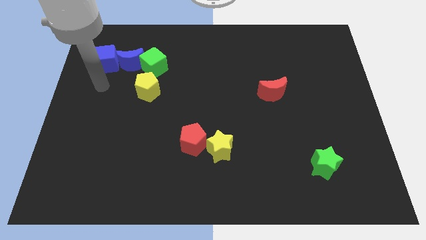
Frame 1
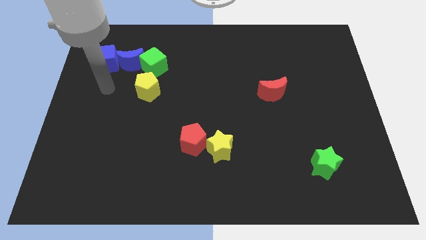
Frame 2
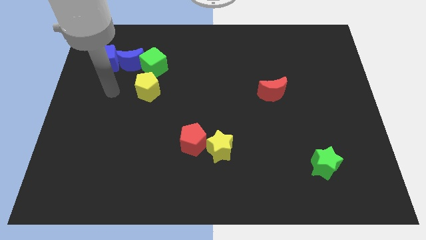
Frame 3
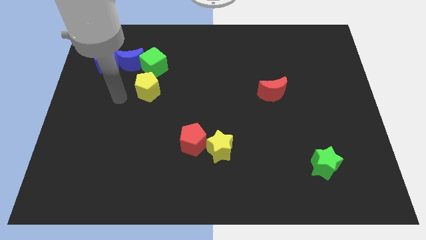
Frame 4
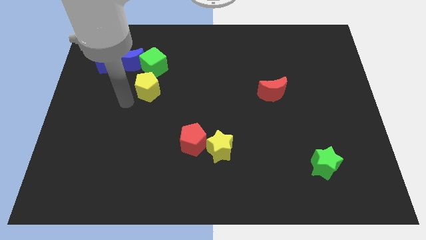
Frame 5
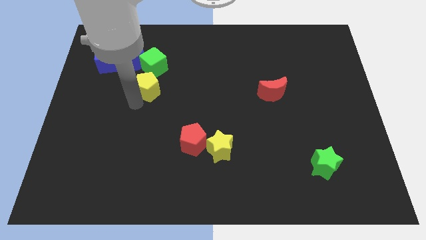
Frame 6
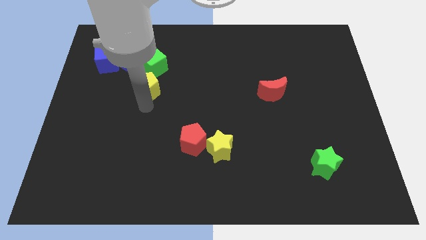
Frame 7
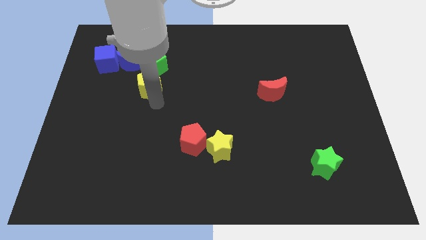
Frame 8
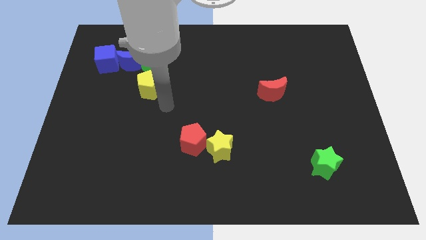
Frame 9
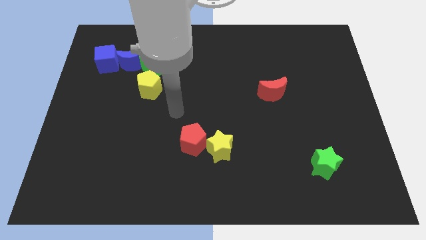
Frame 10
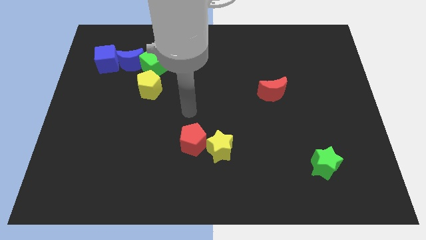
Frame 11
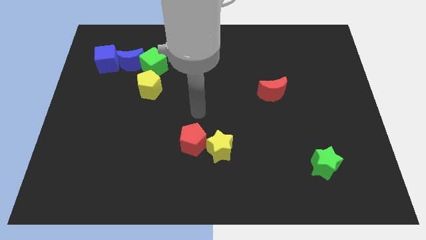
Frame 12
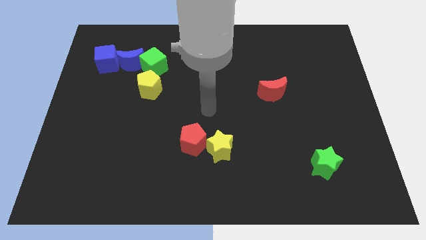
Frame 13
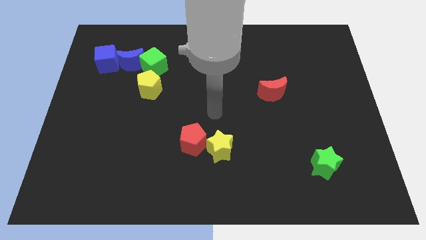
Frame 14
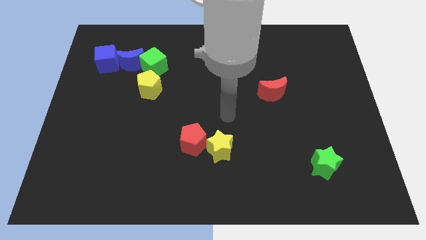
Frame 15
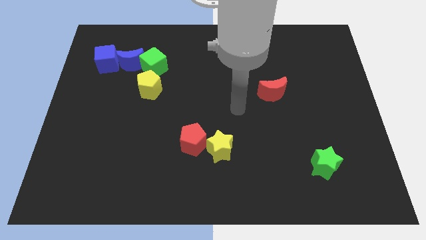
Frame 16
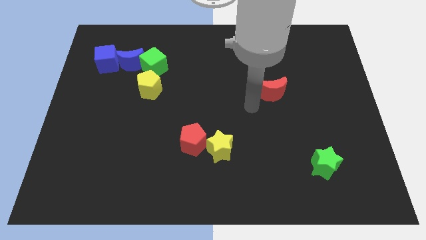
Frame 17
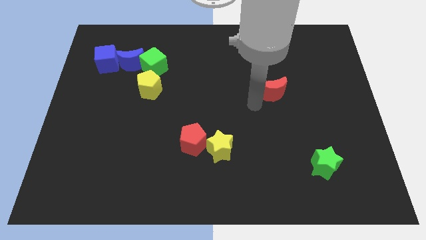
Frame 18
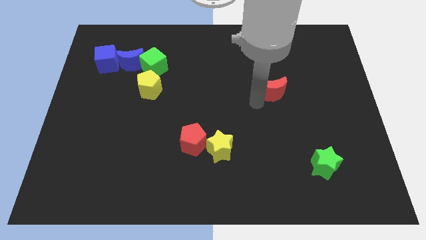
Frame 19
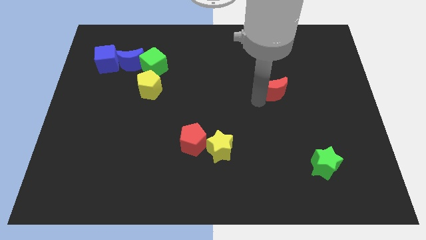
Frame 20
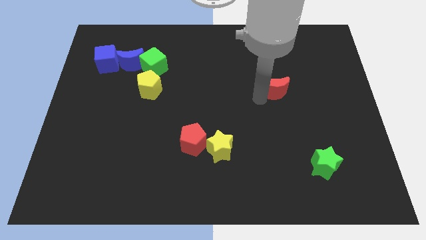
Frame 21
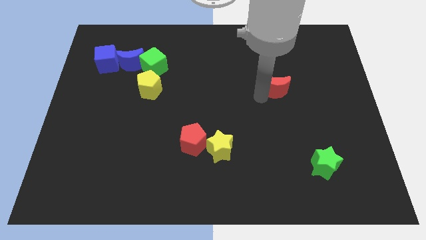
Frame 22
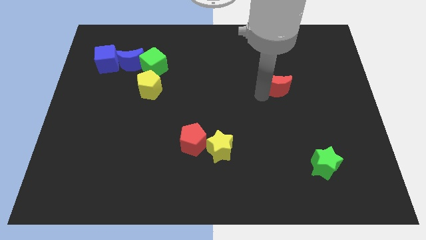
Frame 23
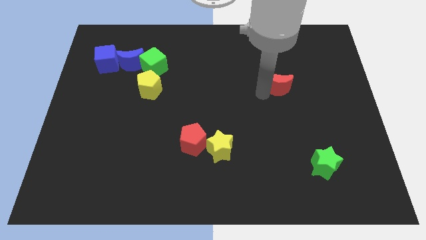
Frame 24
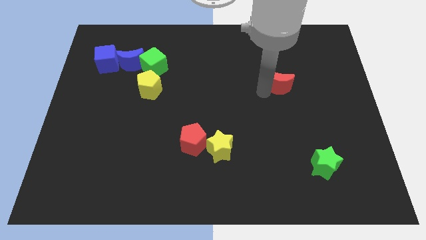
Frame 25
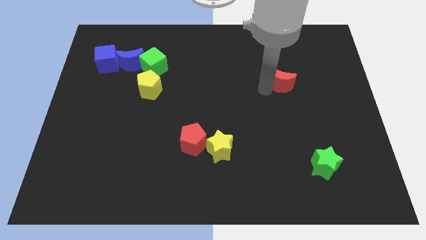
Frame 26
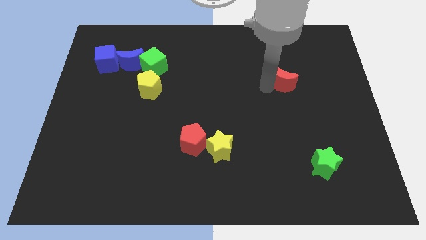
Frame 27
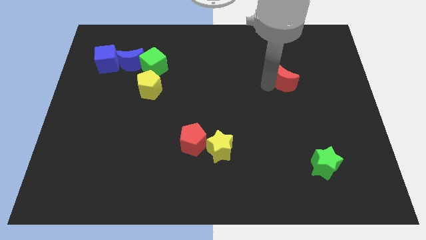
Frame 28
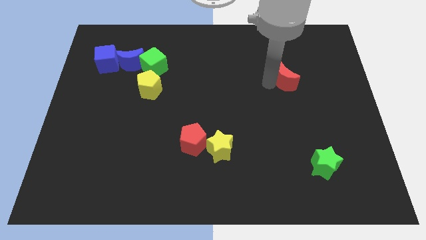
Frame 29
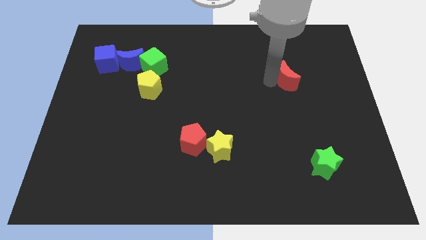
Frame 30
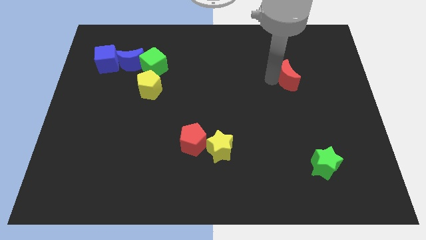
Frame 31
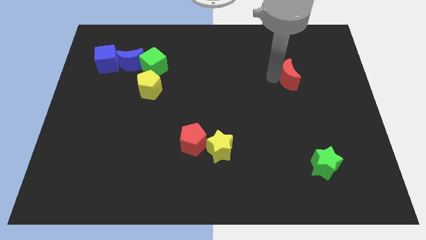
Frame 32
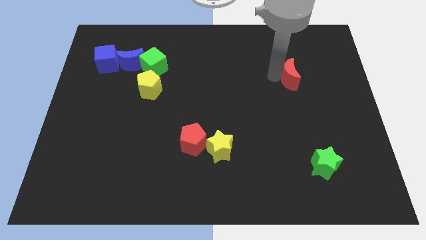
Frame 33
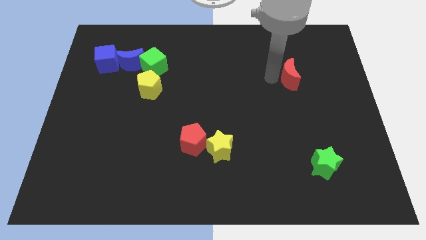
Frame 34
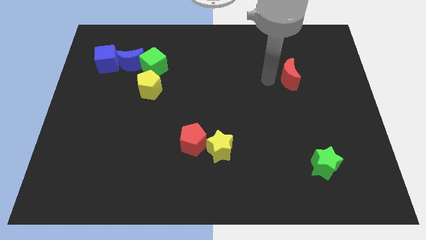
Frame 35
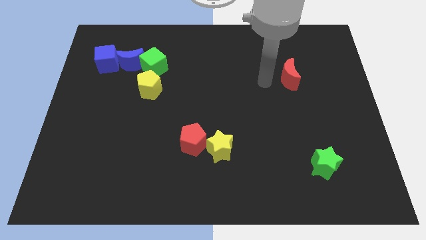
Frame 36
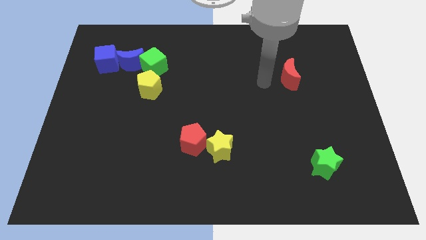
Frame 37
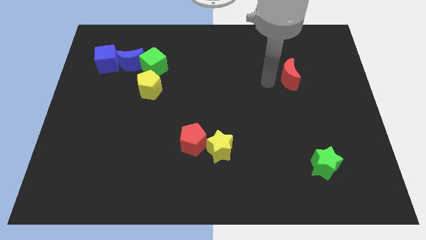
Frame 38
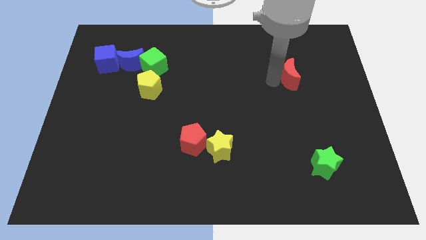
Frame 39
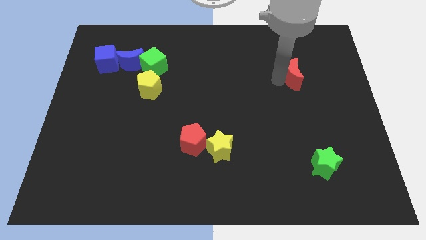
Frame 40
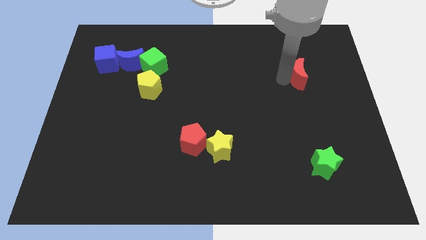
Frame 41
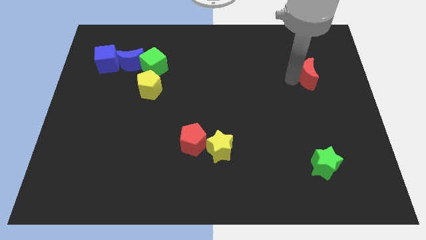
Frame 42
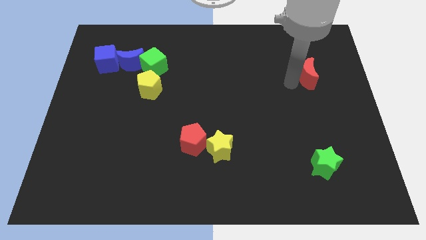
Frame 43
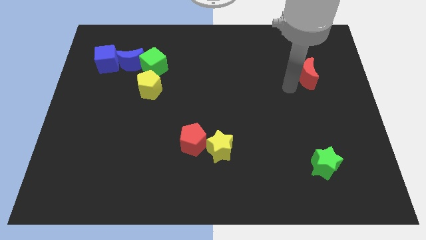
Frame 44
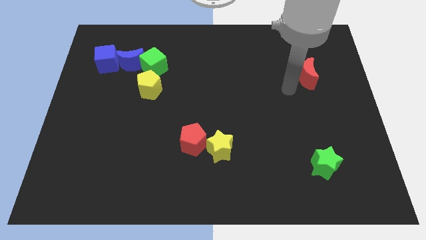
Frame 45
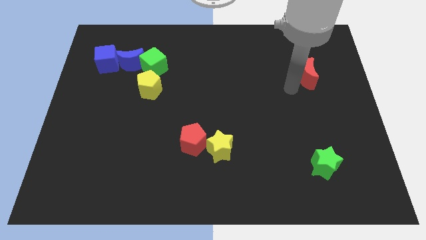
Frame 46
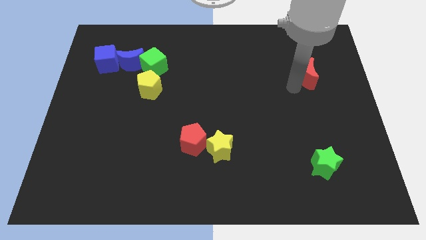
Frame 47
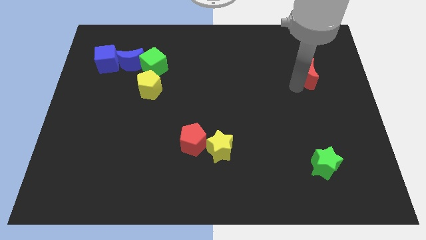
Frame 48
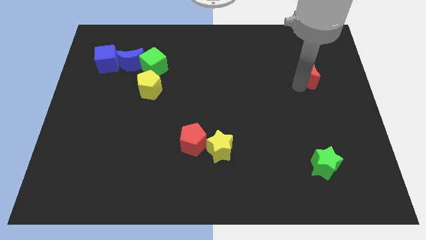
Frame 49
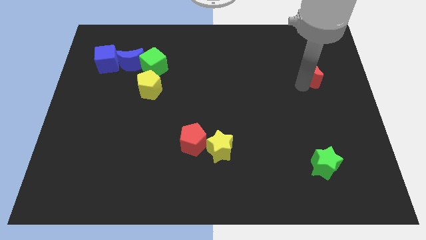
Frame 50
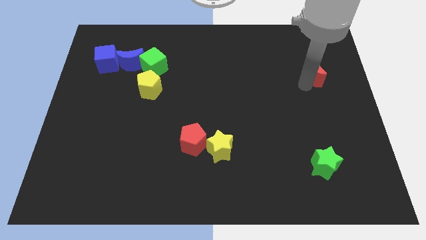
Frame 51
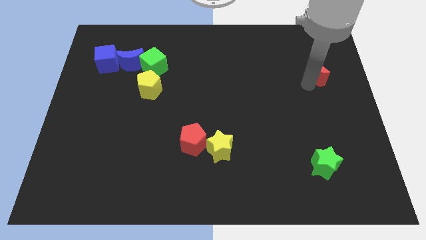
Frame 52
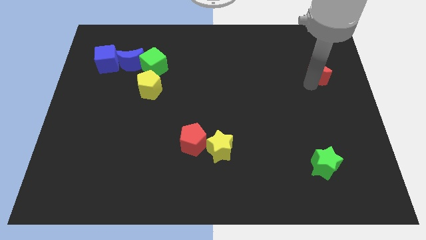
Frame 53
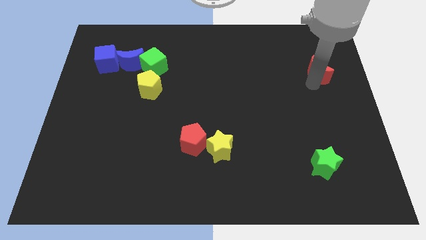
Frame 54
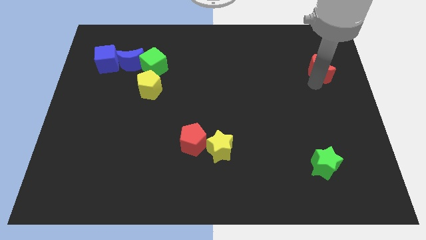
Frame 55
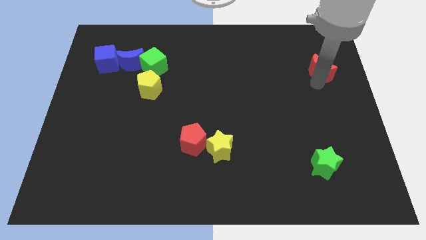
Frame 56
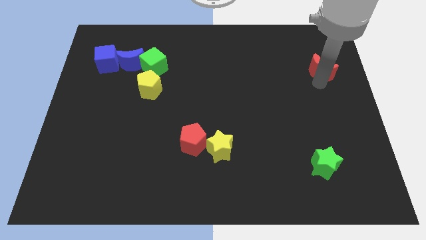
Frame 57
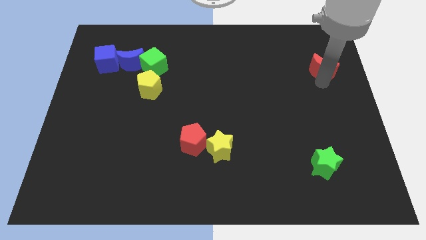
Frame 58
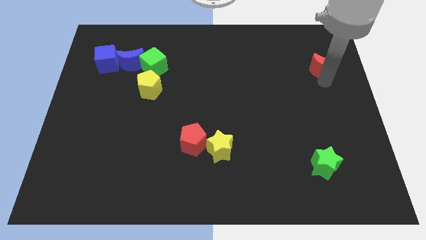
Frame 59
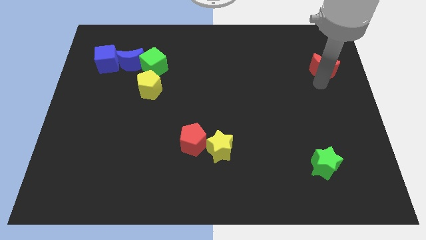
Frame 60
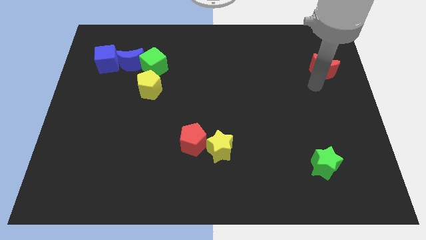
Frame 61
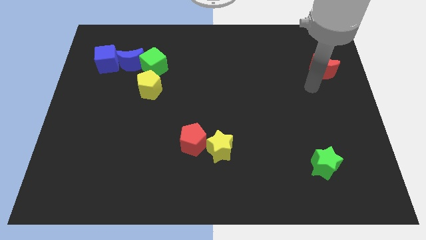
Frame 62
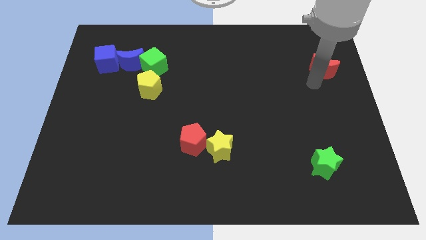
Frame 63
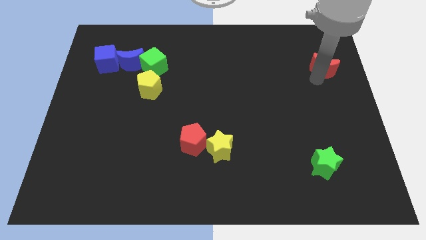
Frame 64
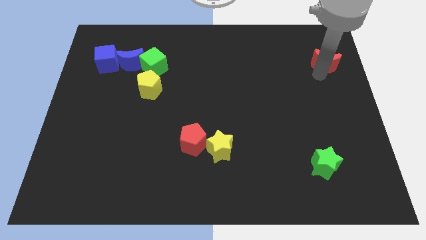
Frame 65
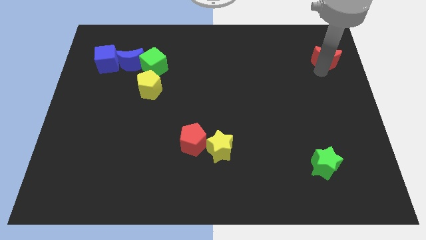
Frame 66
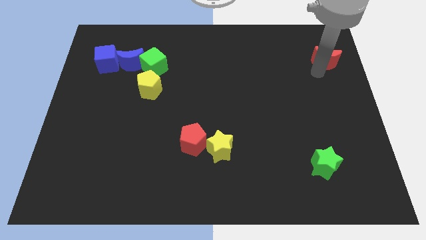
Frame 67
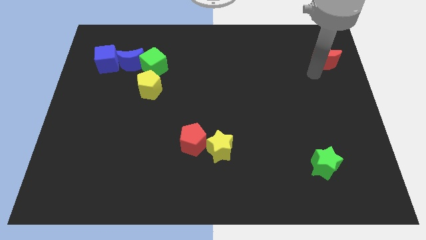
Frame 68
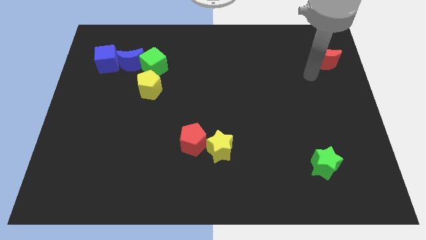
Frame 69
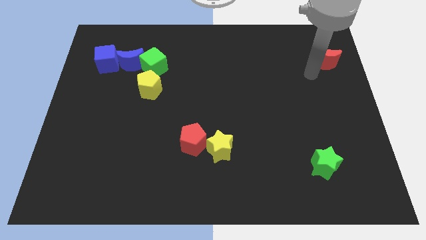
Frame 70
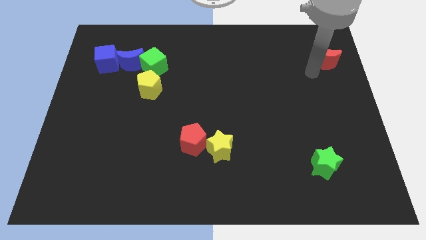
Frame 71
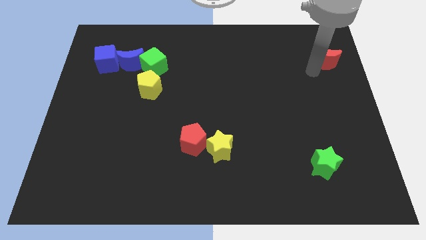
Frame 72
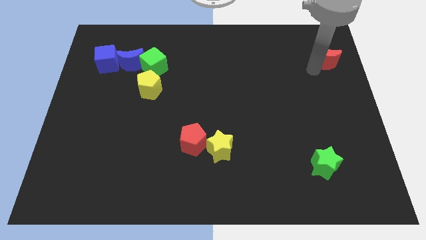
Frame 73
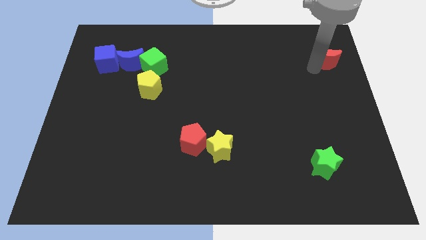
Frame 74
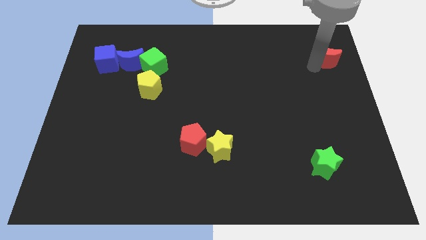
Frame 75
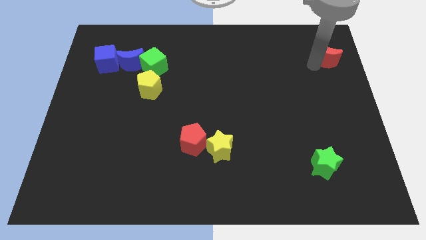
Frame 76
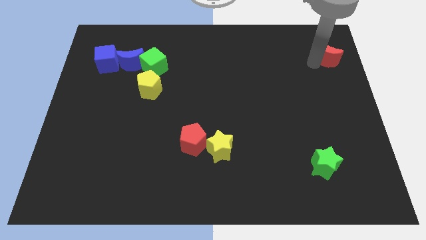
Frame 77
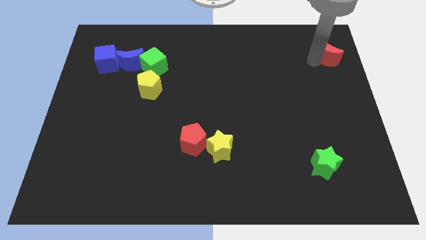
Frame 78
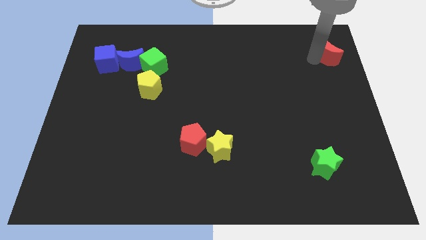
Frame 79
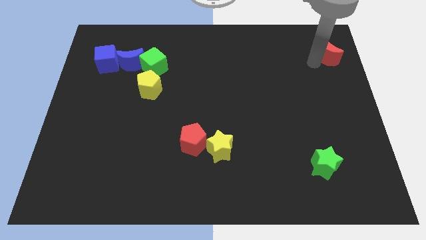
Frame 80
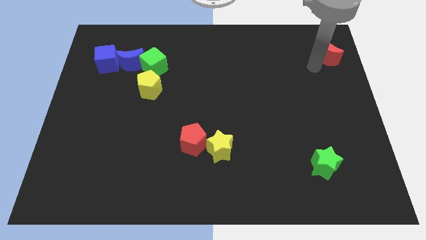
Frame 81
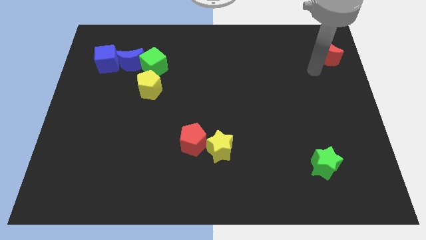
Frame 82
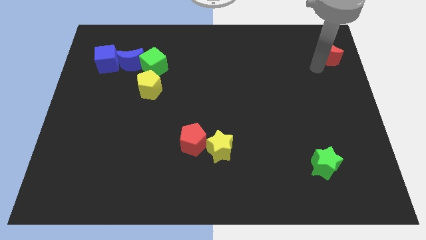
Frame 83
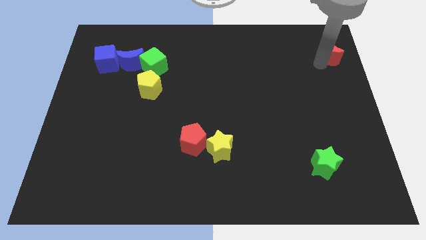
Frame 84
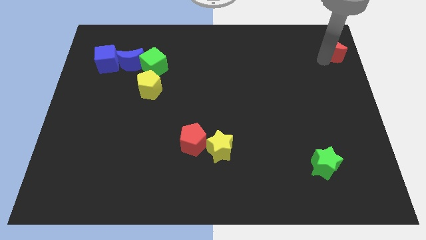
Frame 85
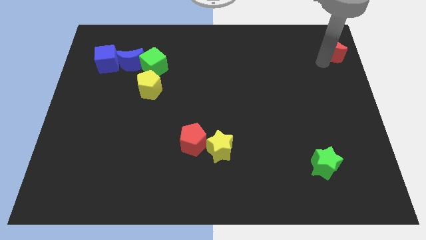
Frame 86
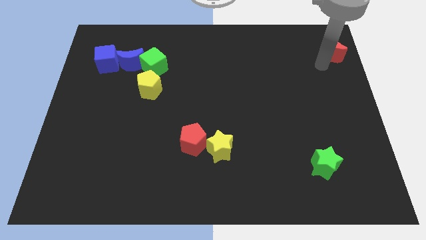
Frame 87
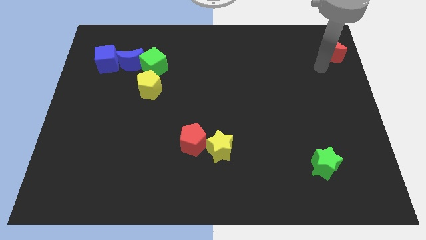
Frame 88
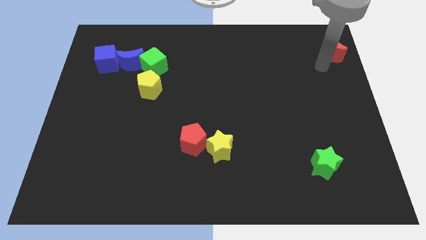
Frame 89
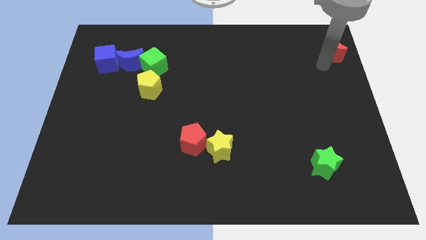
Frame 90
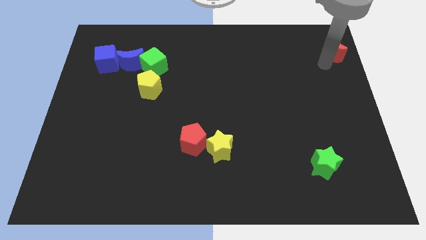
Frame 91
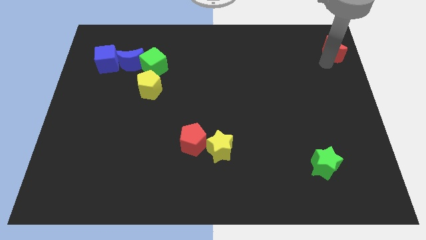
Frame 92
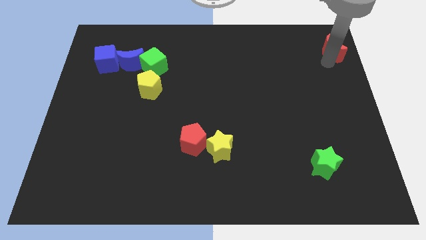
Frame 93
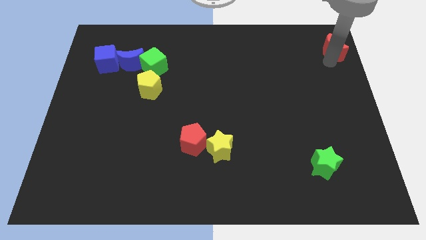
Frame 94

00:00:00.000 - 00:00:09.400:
push the red moon to the upper right corner
